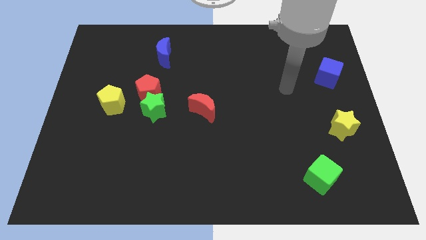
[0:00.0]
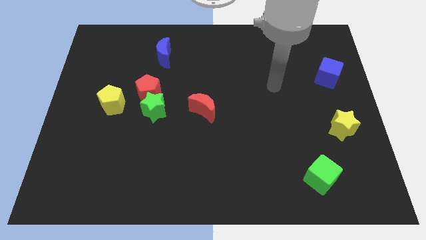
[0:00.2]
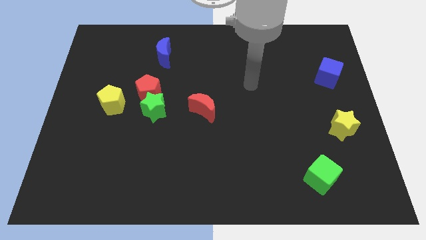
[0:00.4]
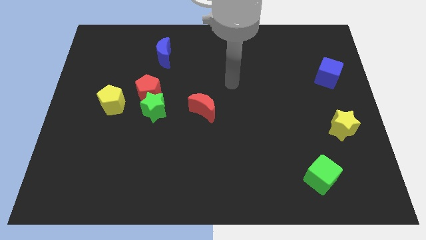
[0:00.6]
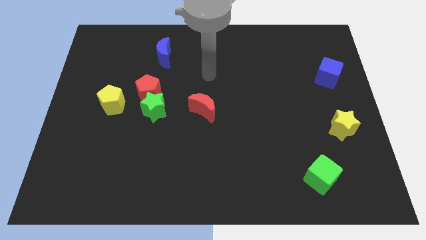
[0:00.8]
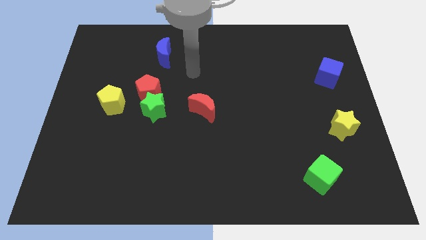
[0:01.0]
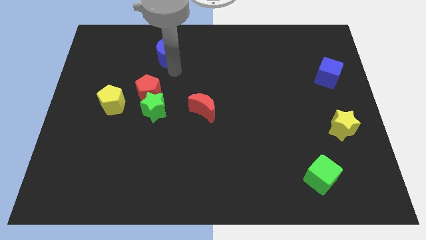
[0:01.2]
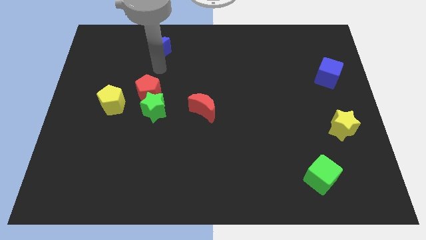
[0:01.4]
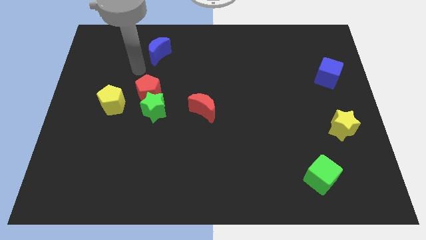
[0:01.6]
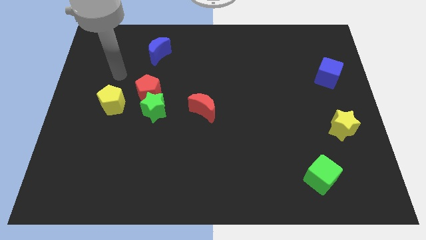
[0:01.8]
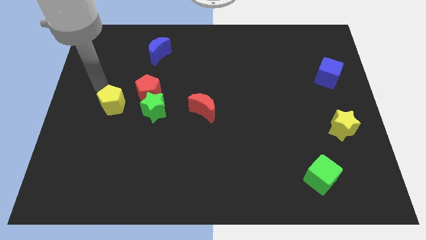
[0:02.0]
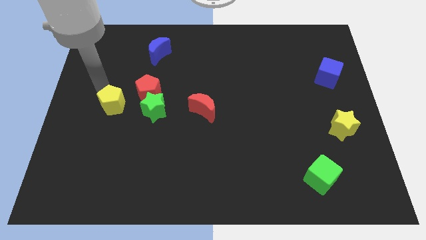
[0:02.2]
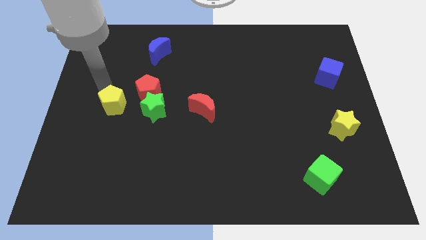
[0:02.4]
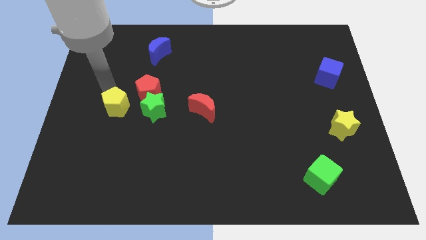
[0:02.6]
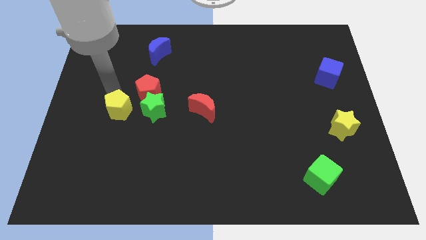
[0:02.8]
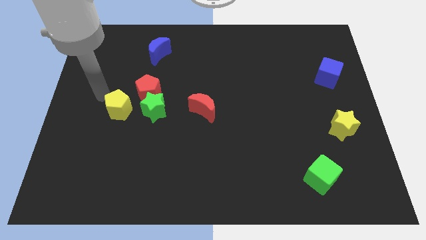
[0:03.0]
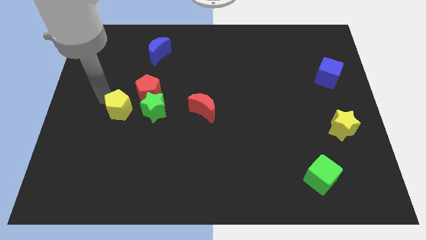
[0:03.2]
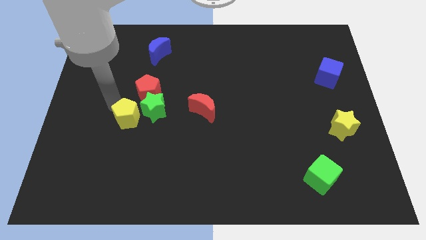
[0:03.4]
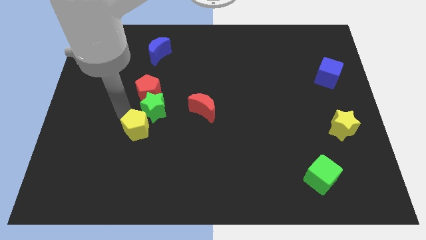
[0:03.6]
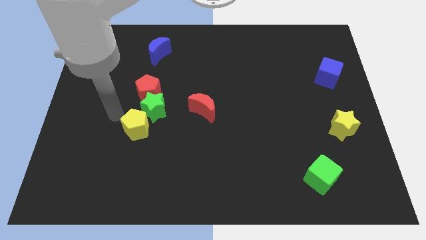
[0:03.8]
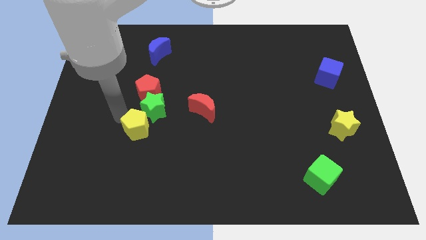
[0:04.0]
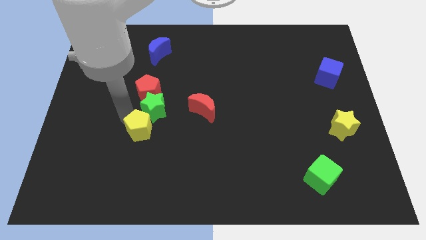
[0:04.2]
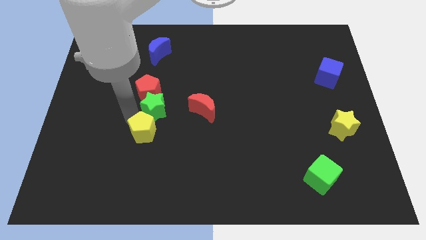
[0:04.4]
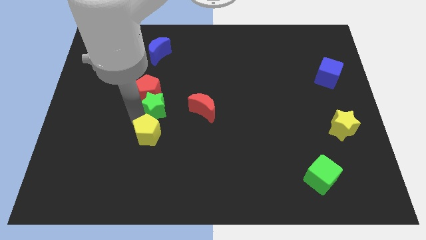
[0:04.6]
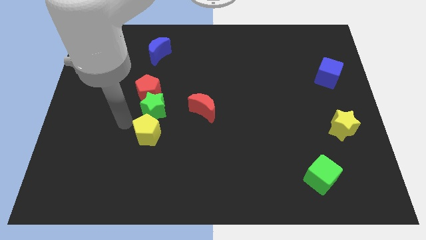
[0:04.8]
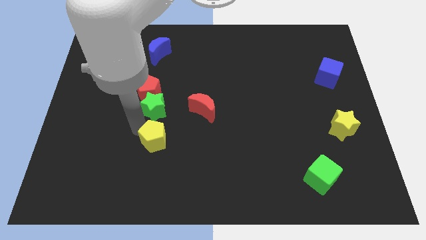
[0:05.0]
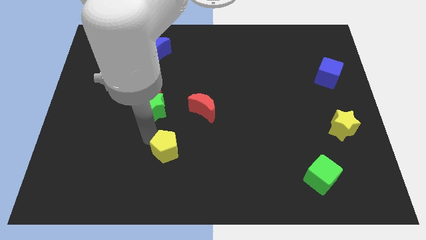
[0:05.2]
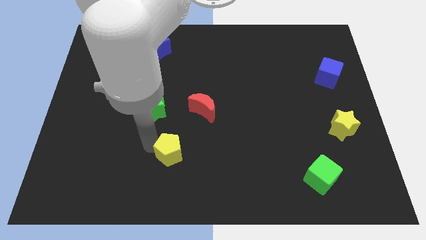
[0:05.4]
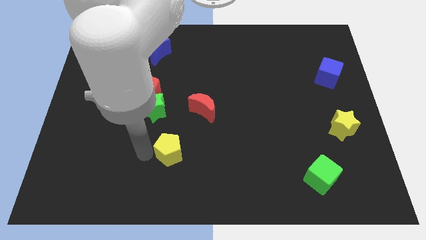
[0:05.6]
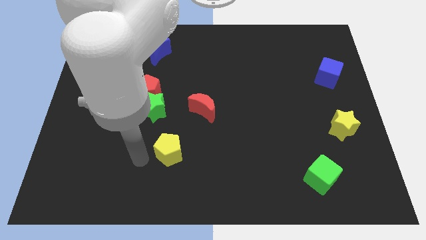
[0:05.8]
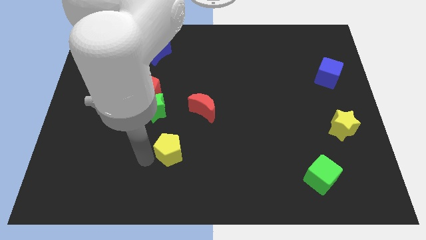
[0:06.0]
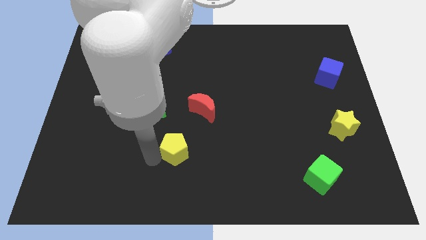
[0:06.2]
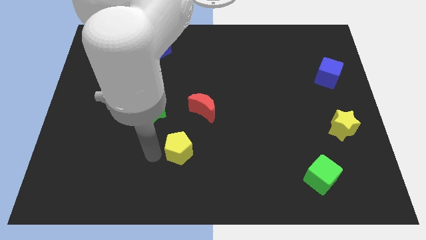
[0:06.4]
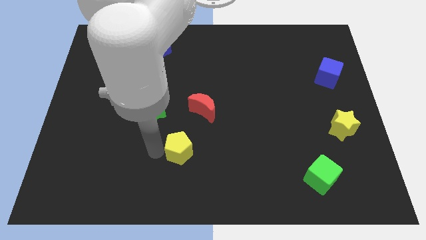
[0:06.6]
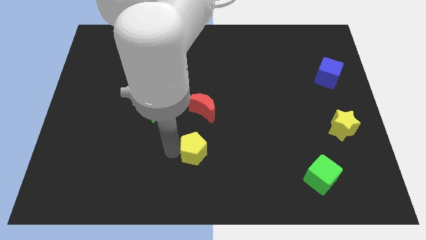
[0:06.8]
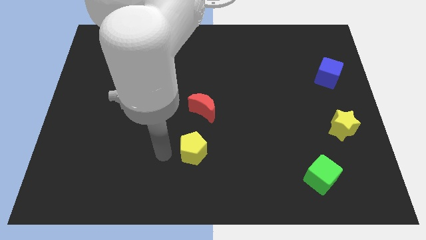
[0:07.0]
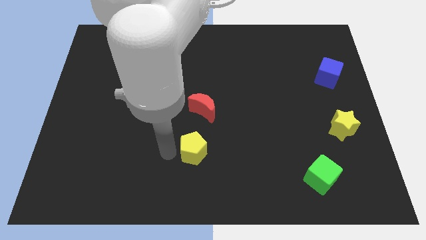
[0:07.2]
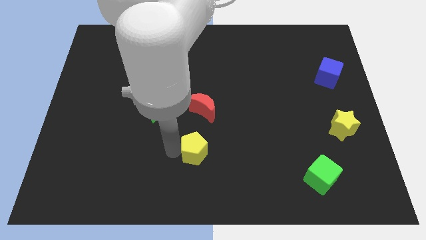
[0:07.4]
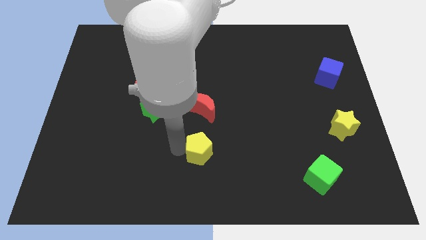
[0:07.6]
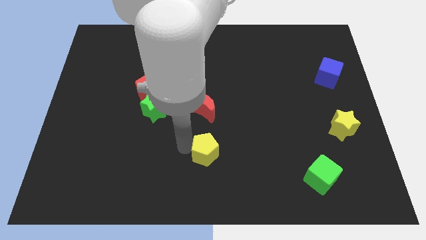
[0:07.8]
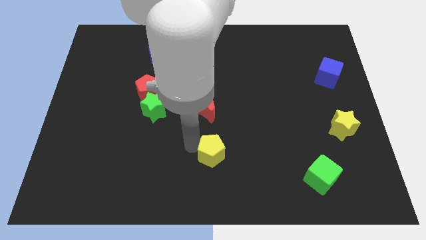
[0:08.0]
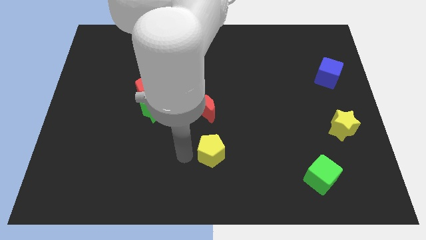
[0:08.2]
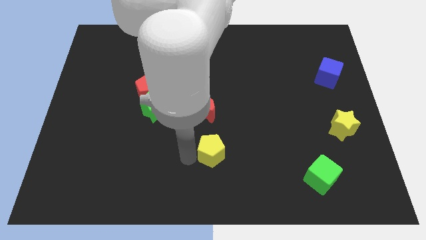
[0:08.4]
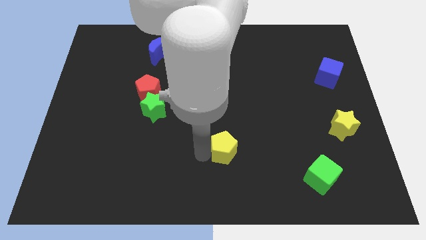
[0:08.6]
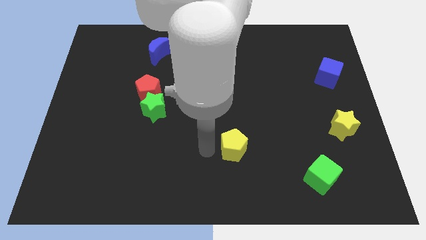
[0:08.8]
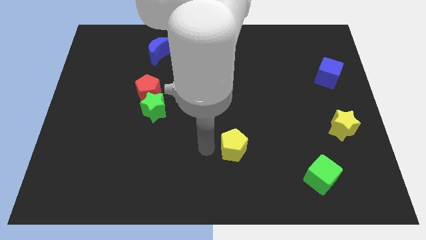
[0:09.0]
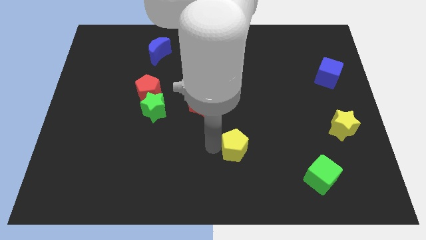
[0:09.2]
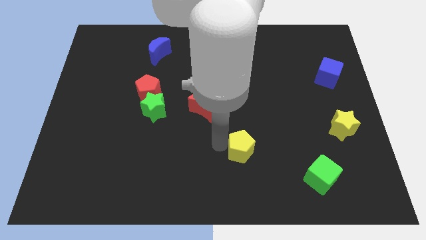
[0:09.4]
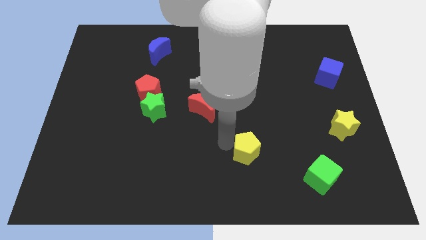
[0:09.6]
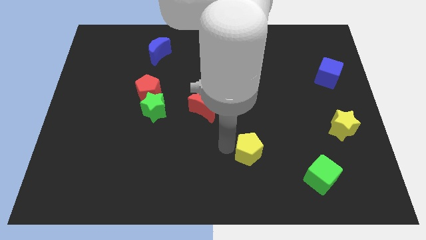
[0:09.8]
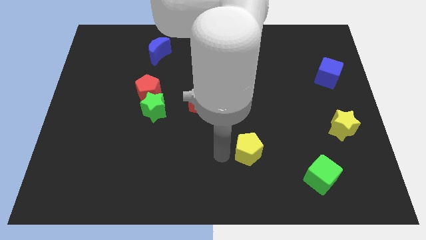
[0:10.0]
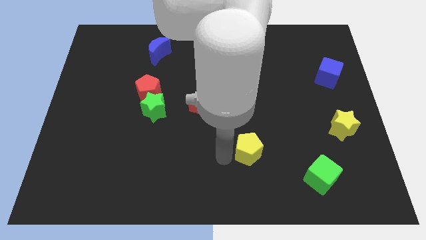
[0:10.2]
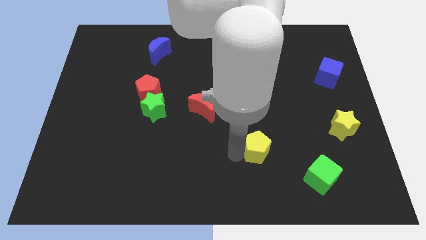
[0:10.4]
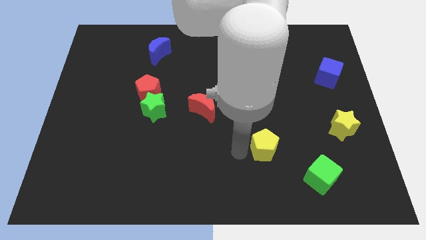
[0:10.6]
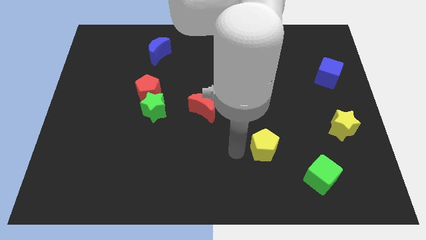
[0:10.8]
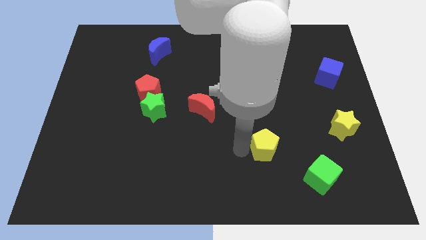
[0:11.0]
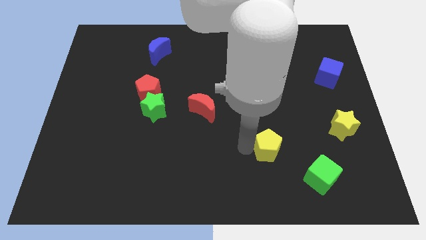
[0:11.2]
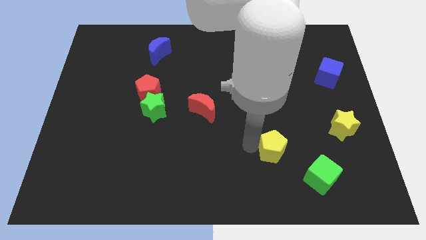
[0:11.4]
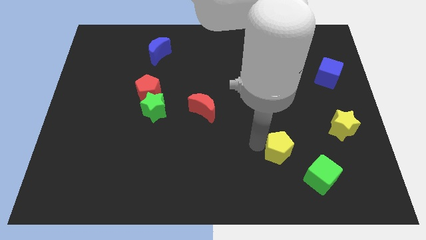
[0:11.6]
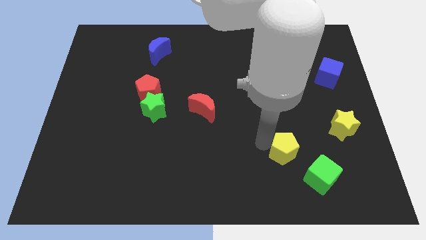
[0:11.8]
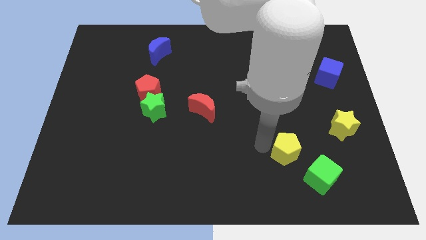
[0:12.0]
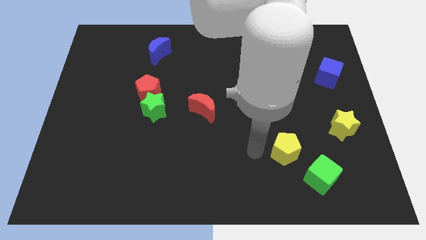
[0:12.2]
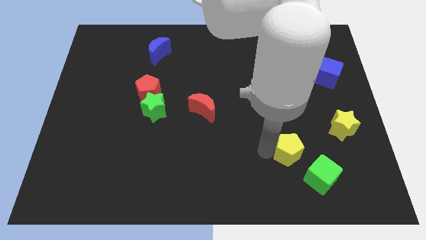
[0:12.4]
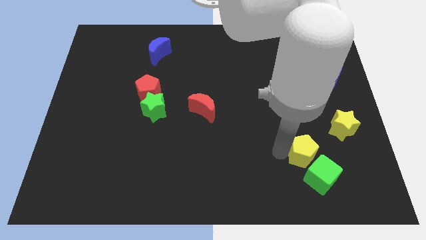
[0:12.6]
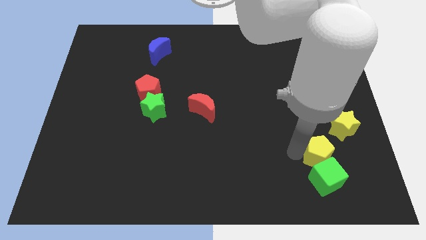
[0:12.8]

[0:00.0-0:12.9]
push the yellow pentagon to the top right side of the green cube
